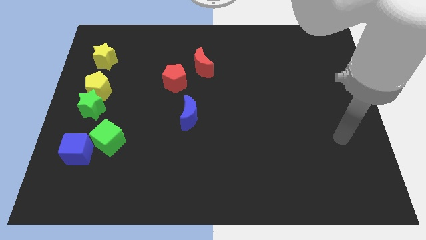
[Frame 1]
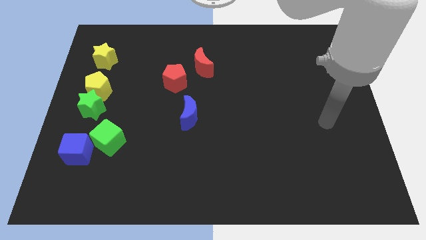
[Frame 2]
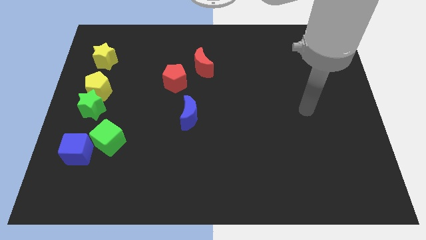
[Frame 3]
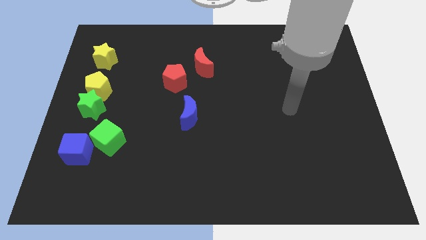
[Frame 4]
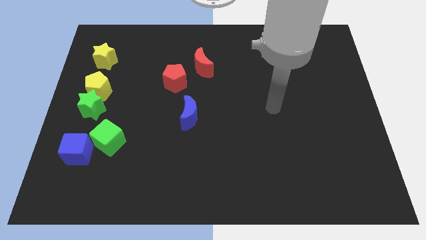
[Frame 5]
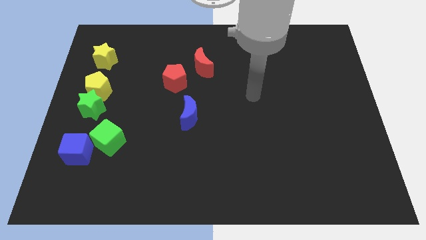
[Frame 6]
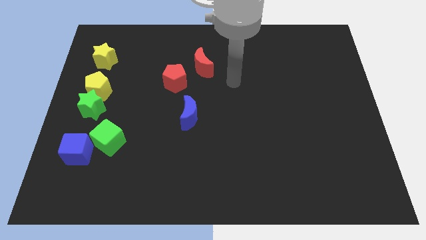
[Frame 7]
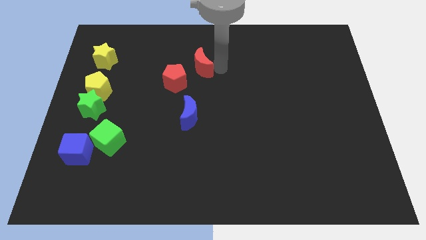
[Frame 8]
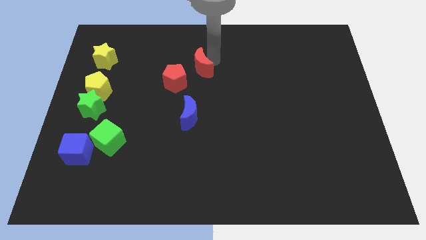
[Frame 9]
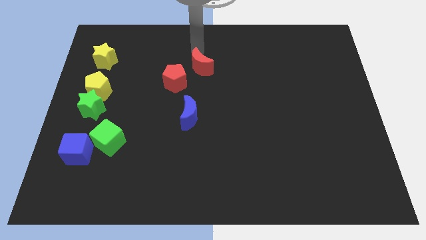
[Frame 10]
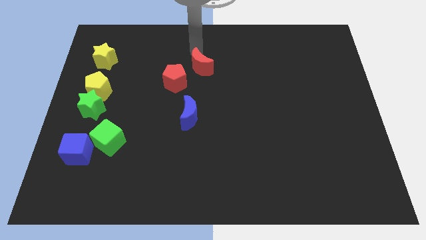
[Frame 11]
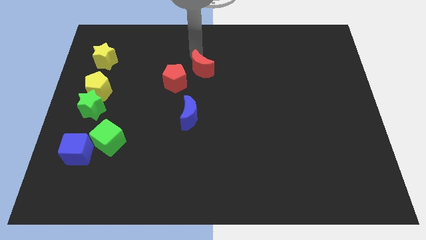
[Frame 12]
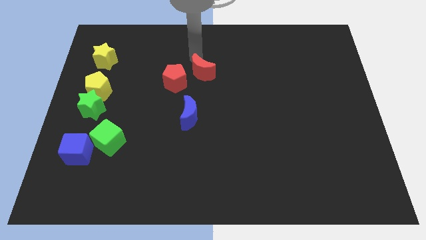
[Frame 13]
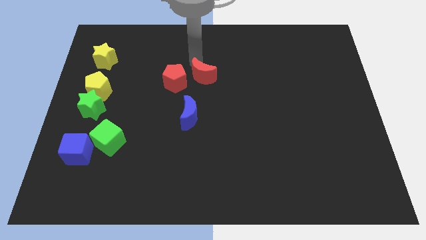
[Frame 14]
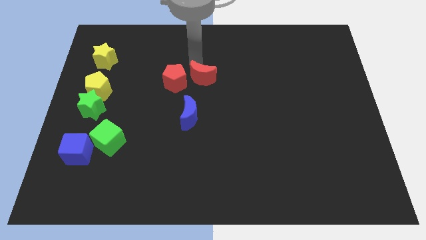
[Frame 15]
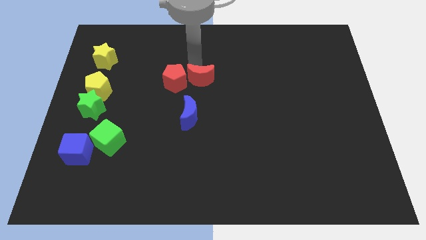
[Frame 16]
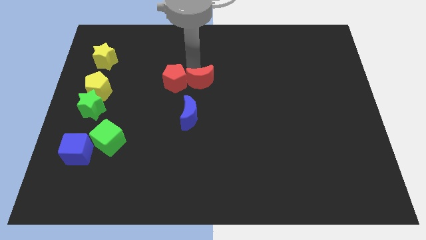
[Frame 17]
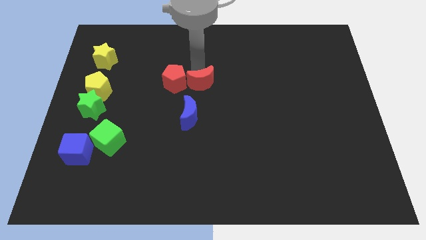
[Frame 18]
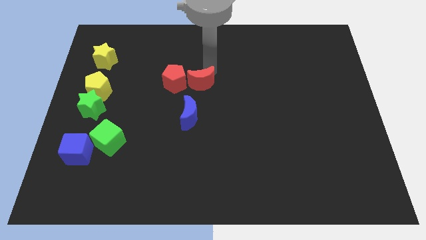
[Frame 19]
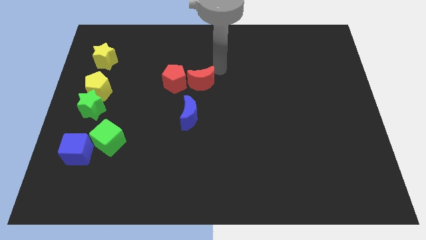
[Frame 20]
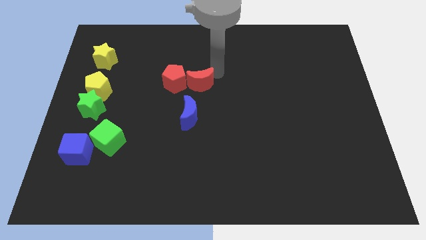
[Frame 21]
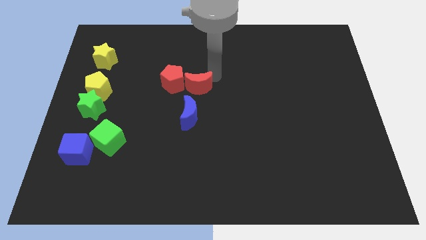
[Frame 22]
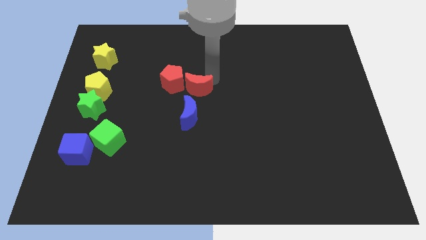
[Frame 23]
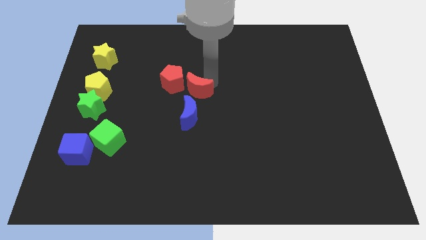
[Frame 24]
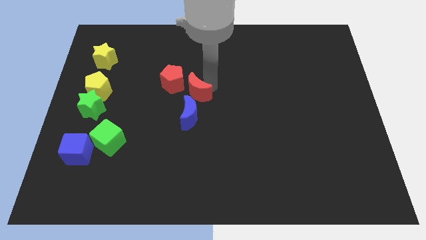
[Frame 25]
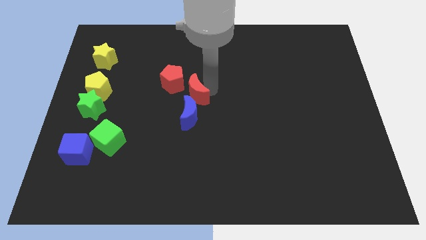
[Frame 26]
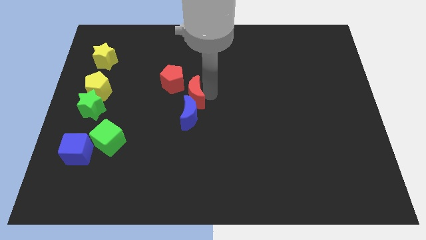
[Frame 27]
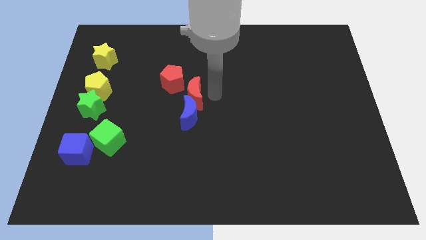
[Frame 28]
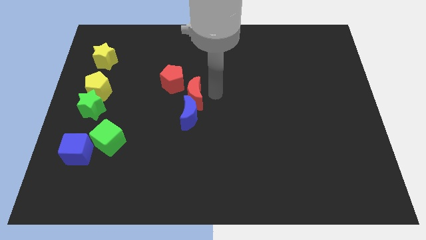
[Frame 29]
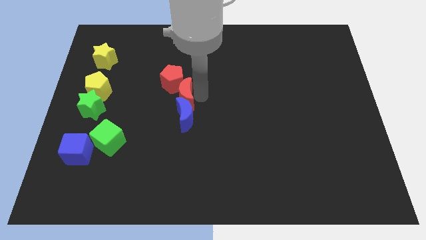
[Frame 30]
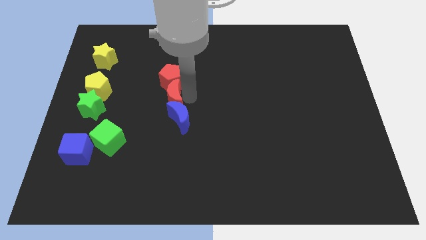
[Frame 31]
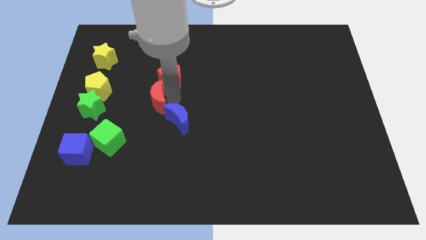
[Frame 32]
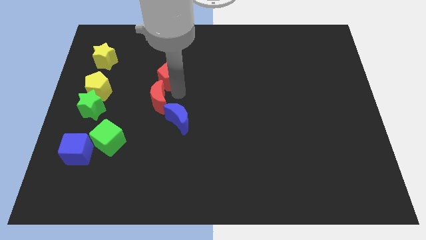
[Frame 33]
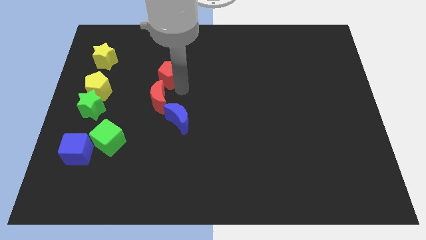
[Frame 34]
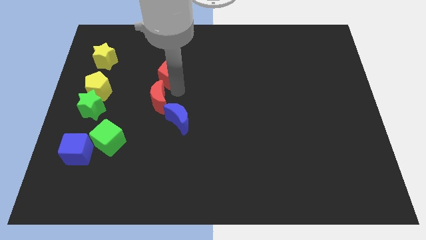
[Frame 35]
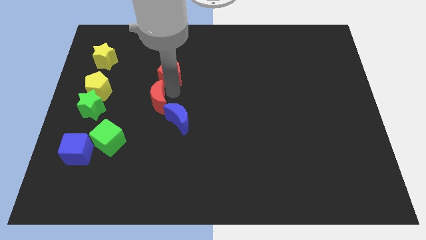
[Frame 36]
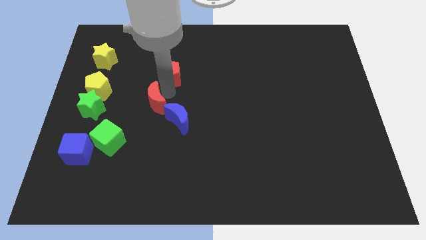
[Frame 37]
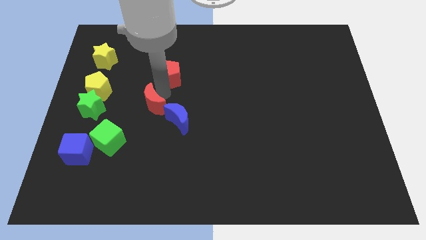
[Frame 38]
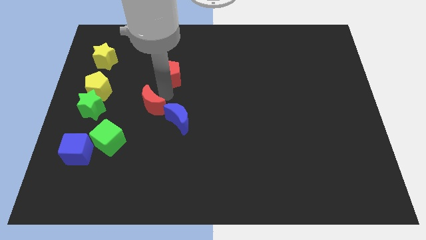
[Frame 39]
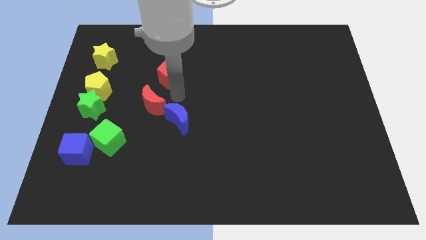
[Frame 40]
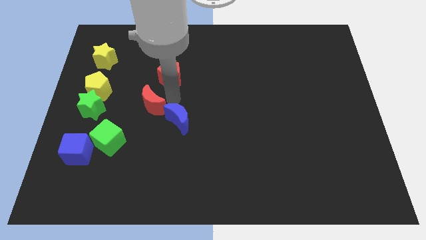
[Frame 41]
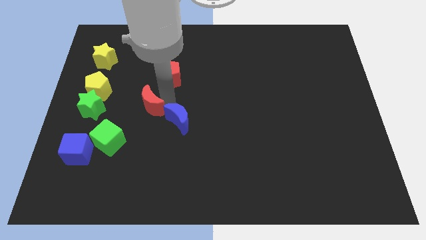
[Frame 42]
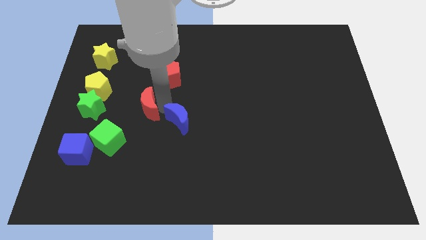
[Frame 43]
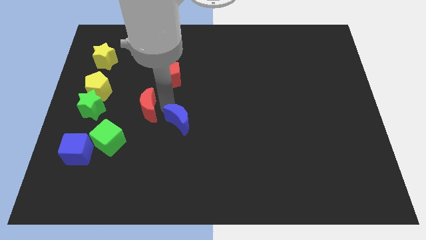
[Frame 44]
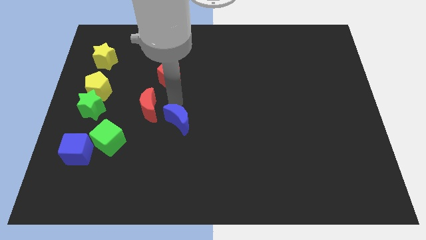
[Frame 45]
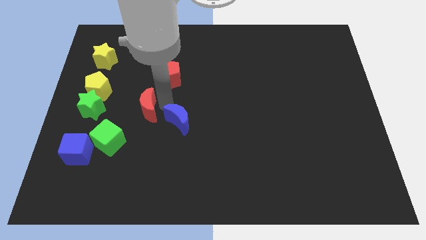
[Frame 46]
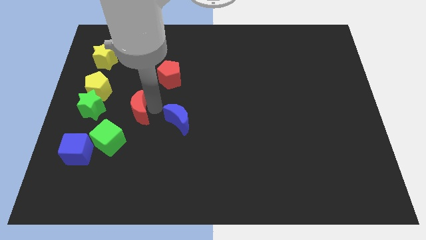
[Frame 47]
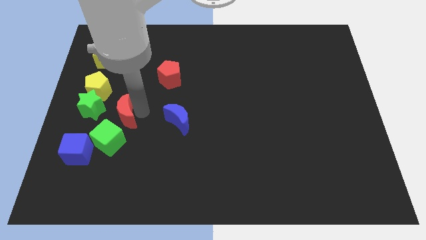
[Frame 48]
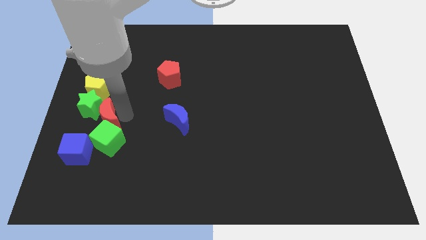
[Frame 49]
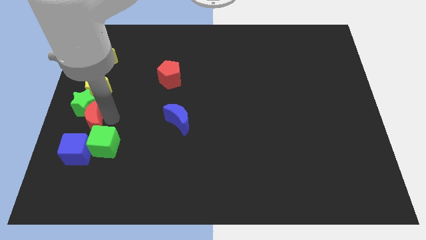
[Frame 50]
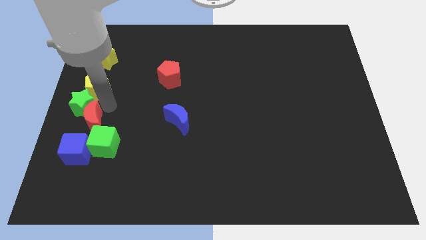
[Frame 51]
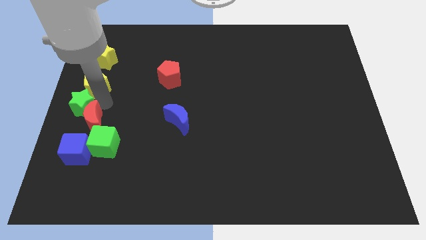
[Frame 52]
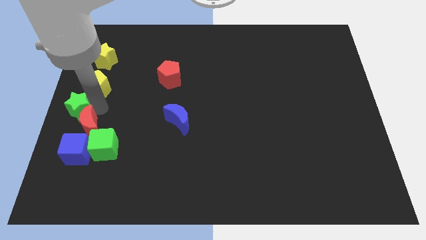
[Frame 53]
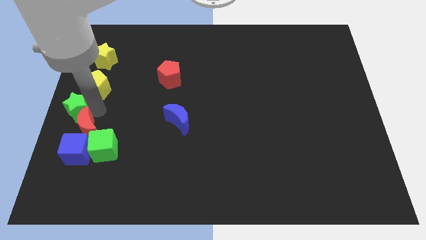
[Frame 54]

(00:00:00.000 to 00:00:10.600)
put the red moon close to the blue cube

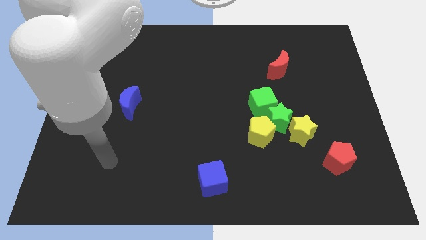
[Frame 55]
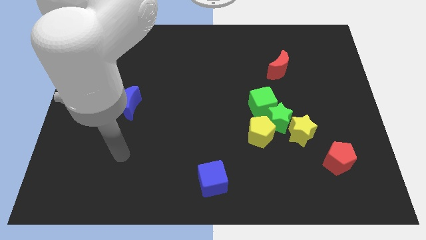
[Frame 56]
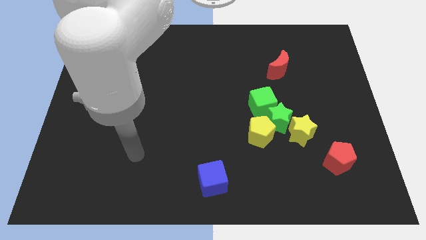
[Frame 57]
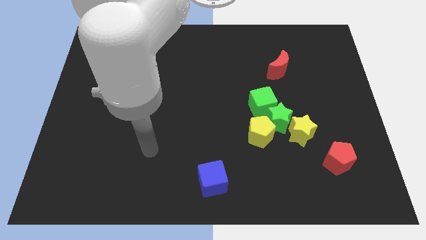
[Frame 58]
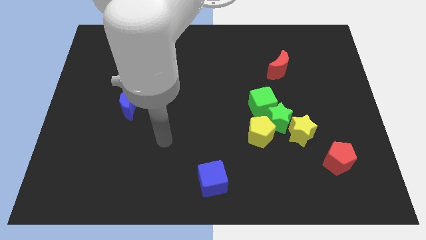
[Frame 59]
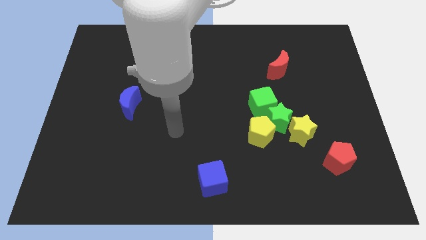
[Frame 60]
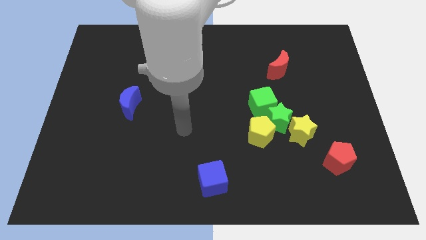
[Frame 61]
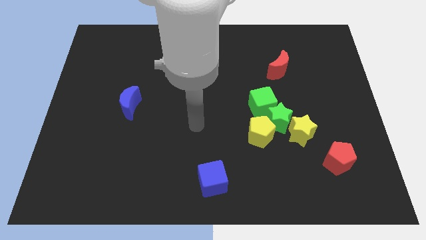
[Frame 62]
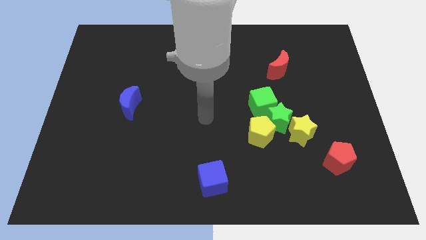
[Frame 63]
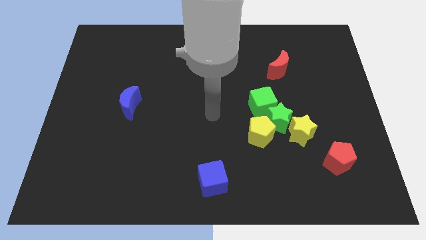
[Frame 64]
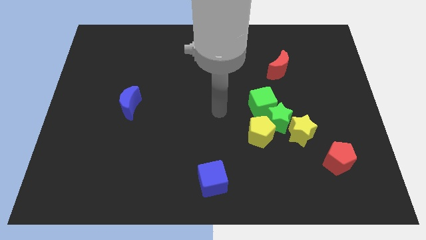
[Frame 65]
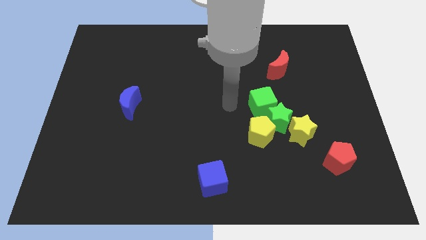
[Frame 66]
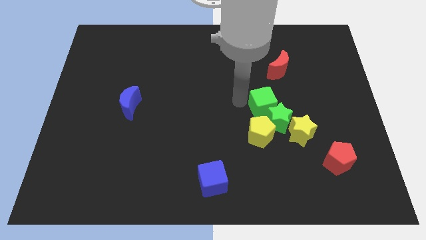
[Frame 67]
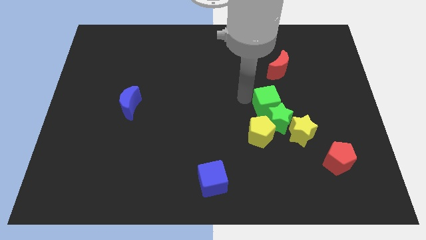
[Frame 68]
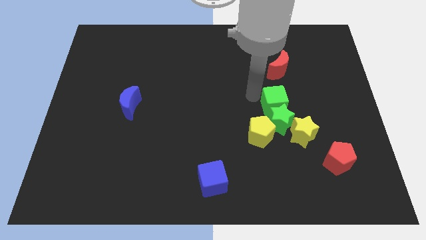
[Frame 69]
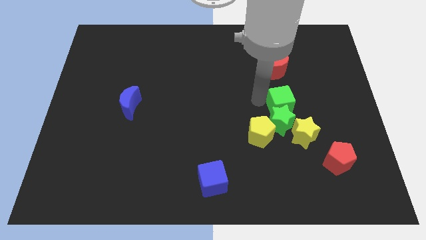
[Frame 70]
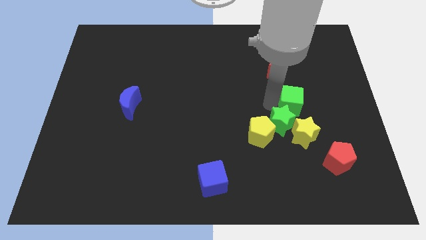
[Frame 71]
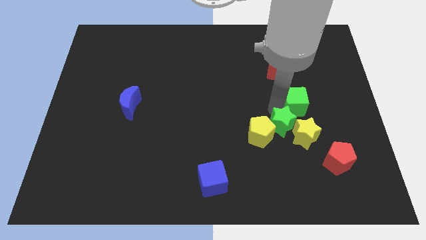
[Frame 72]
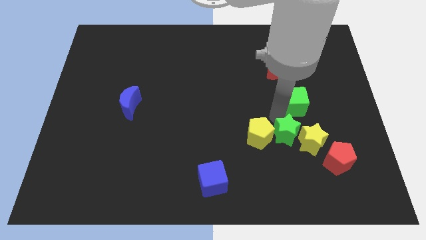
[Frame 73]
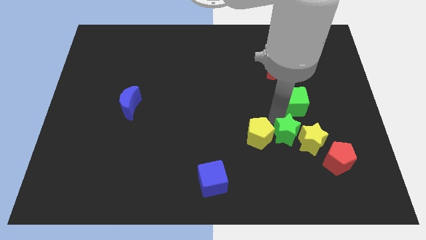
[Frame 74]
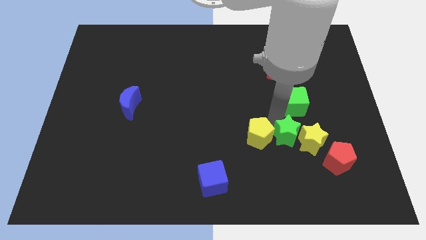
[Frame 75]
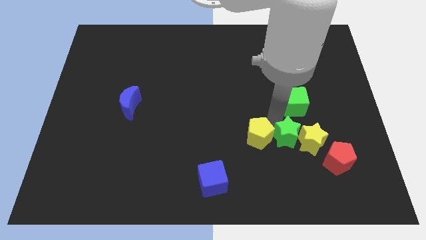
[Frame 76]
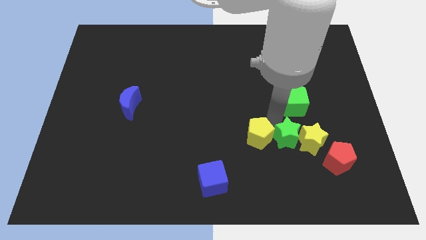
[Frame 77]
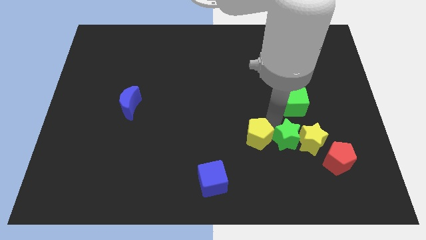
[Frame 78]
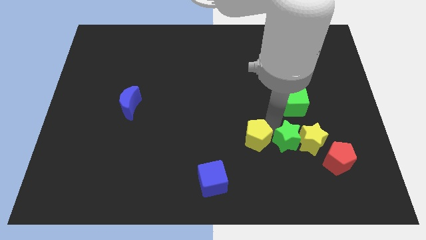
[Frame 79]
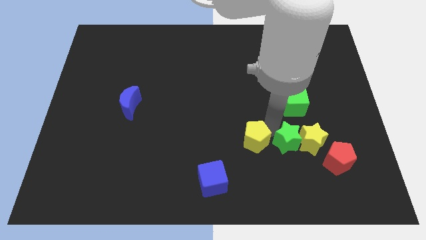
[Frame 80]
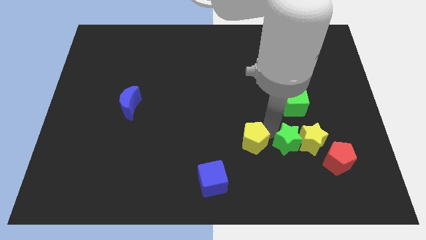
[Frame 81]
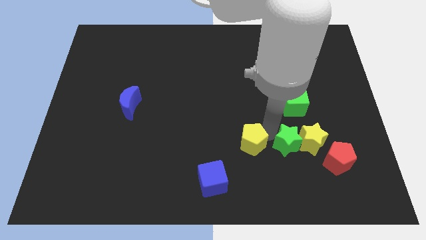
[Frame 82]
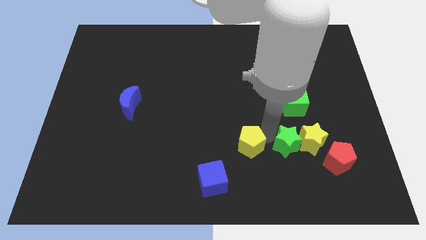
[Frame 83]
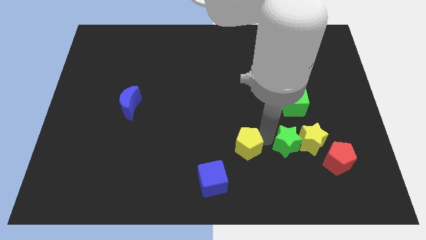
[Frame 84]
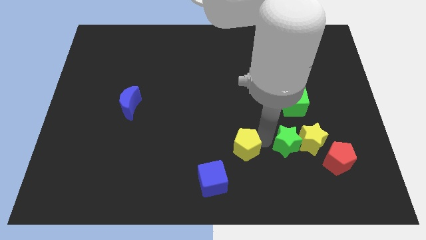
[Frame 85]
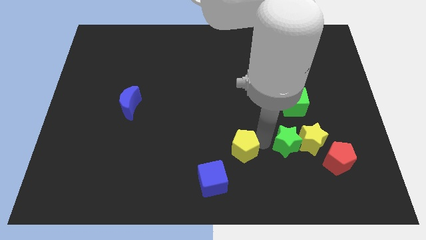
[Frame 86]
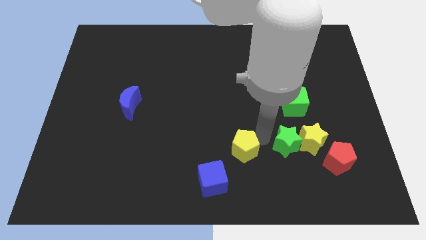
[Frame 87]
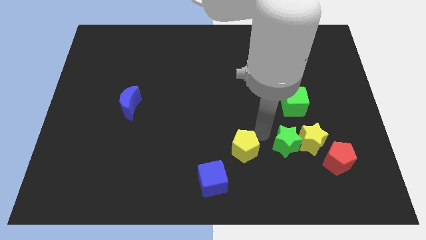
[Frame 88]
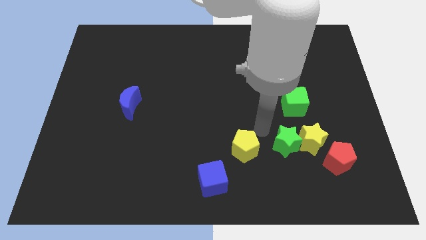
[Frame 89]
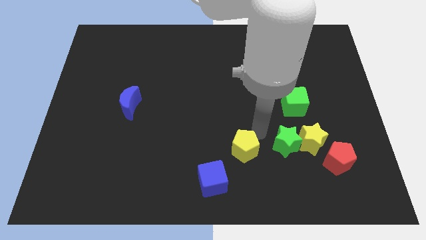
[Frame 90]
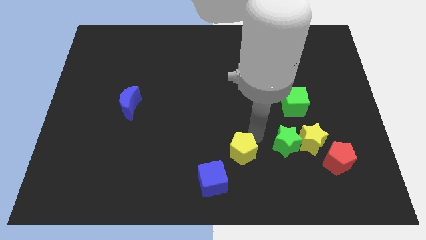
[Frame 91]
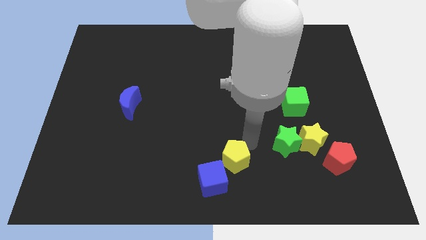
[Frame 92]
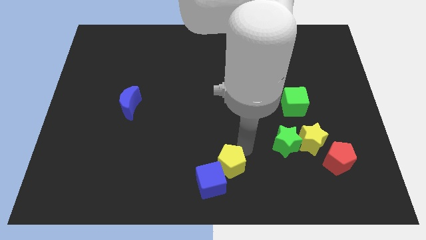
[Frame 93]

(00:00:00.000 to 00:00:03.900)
move the yellow pentagon towards the blue cube
